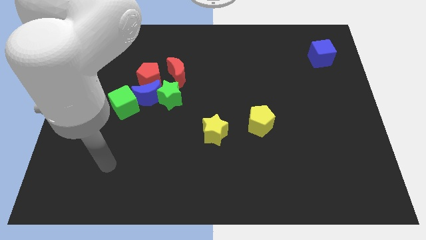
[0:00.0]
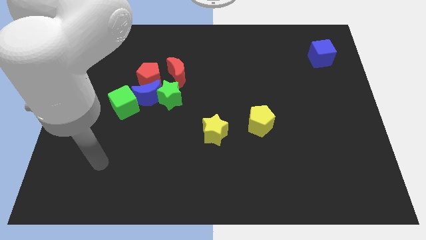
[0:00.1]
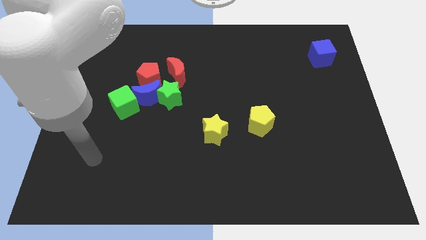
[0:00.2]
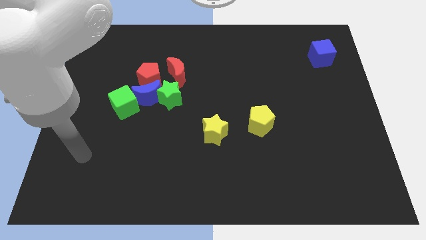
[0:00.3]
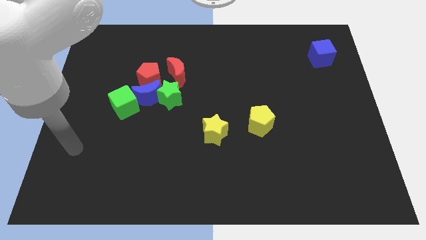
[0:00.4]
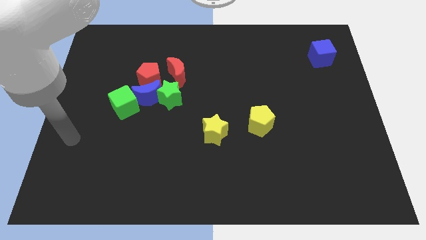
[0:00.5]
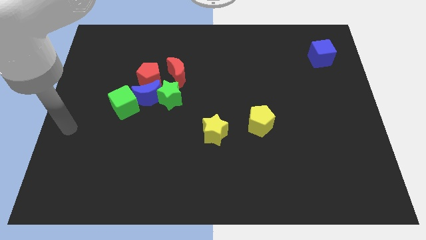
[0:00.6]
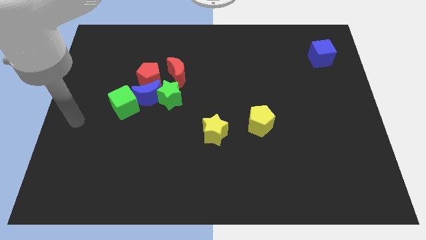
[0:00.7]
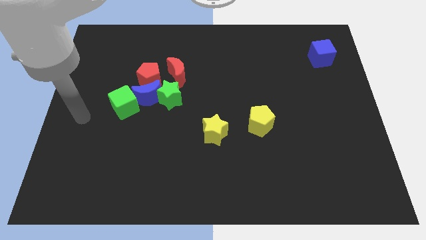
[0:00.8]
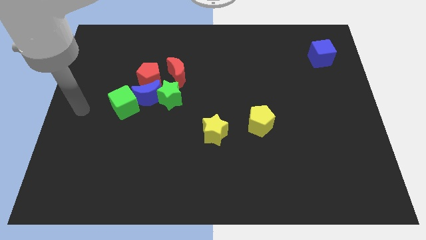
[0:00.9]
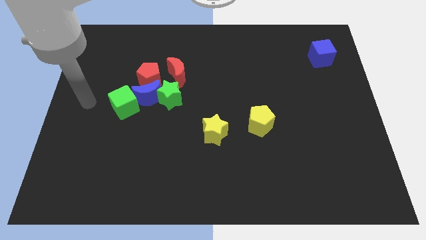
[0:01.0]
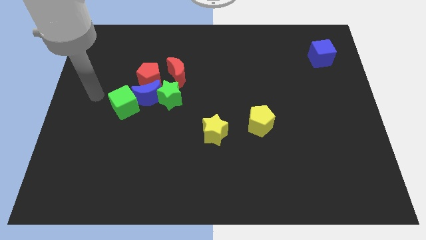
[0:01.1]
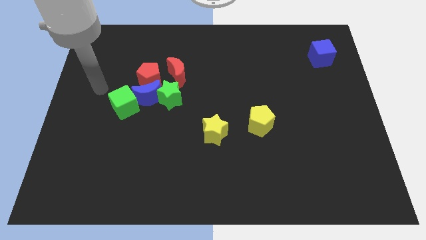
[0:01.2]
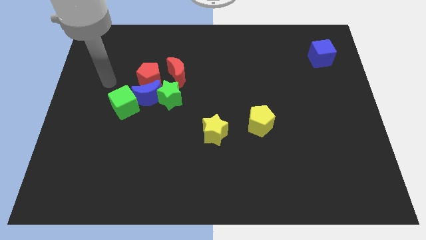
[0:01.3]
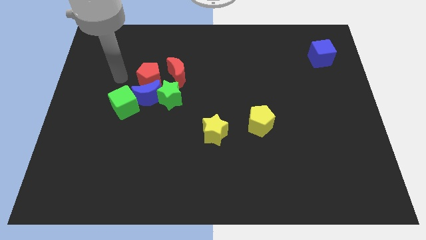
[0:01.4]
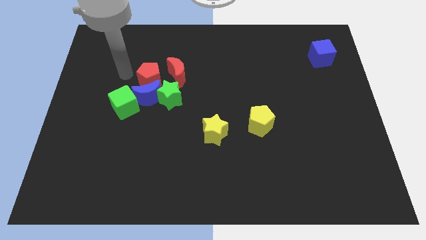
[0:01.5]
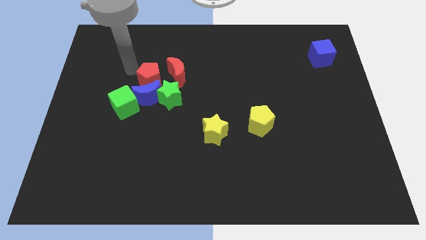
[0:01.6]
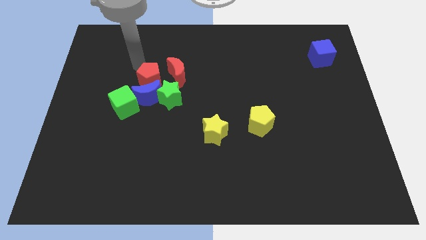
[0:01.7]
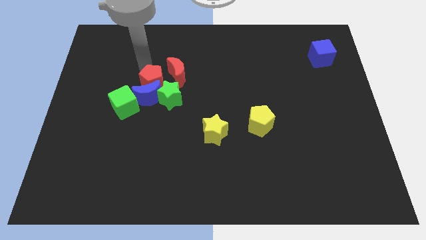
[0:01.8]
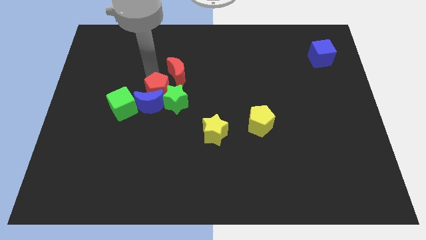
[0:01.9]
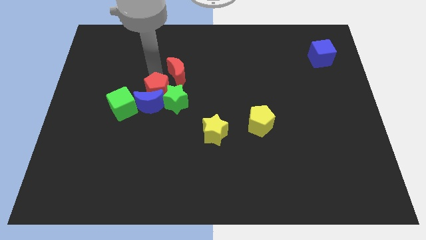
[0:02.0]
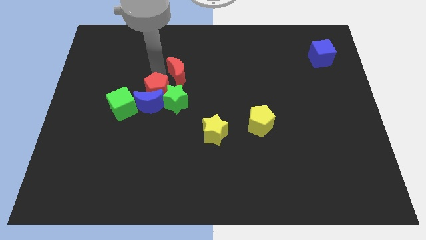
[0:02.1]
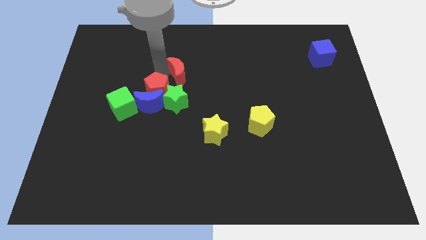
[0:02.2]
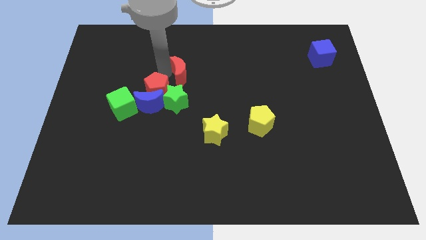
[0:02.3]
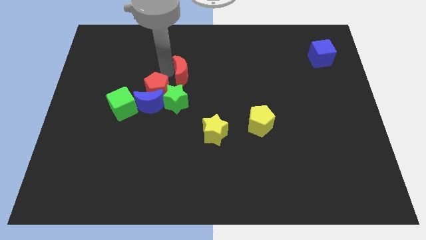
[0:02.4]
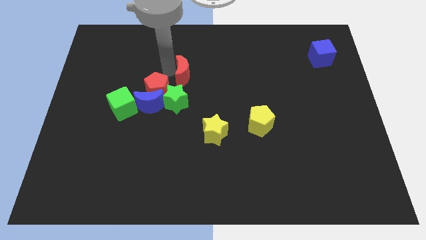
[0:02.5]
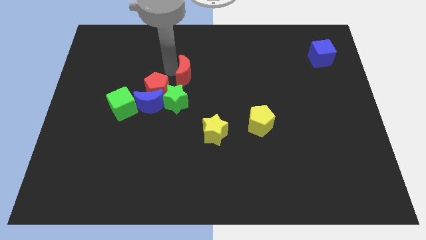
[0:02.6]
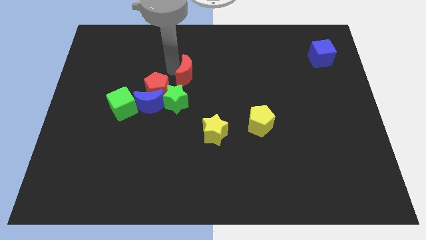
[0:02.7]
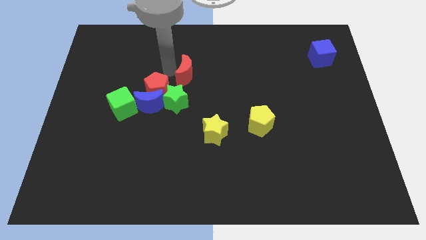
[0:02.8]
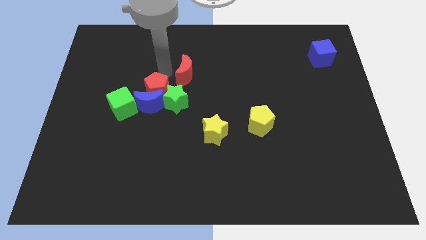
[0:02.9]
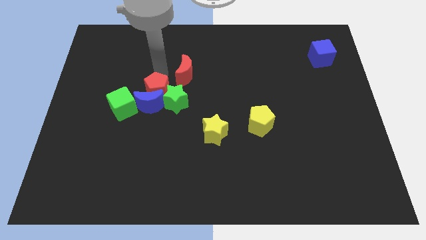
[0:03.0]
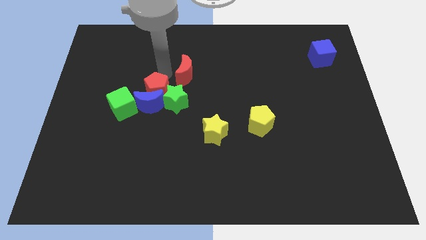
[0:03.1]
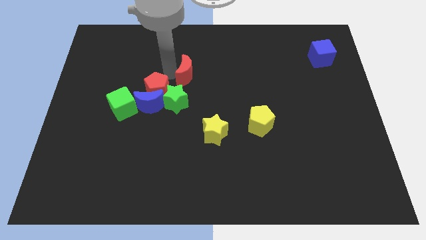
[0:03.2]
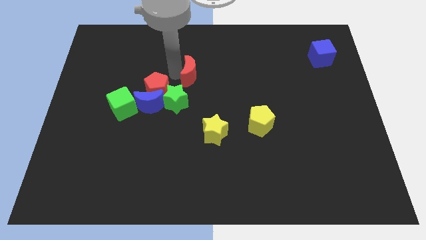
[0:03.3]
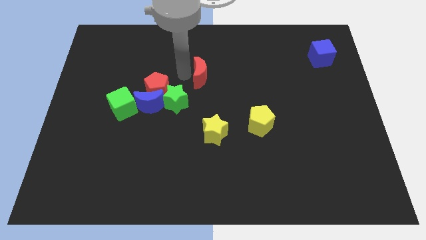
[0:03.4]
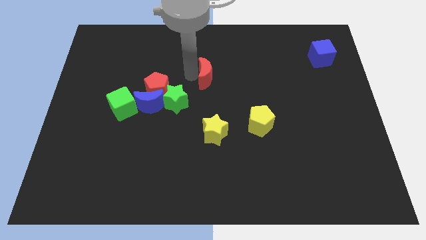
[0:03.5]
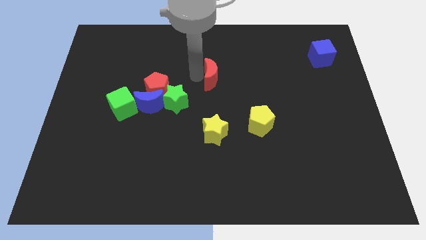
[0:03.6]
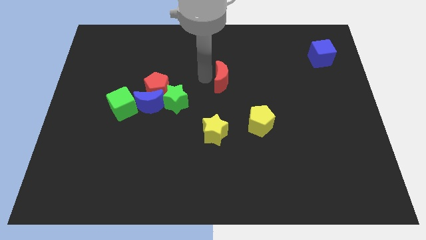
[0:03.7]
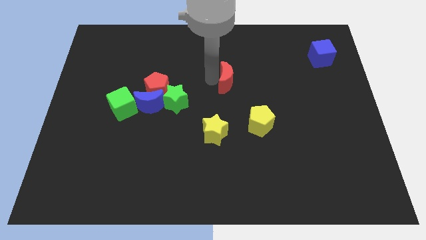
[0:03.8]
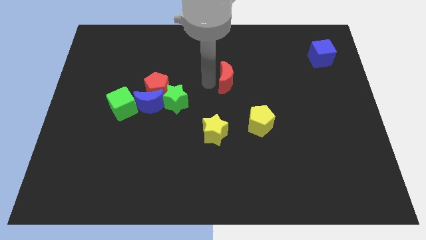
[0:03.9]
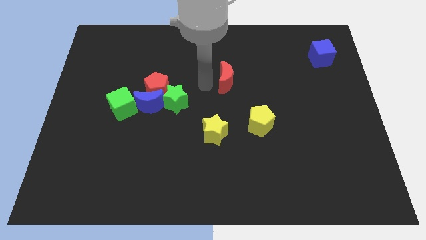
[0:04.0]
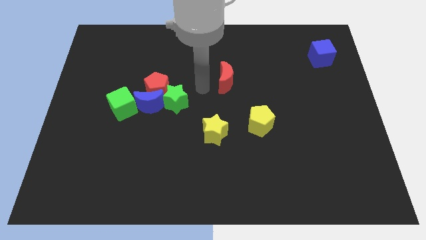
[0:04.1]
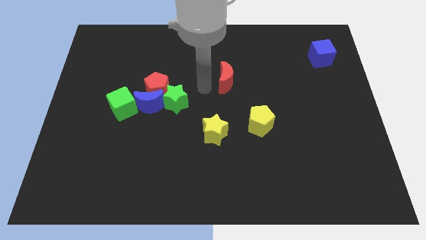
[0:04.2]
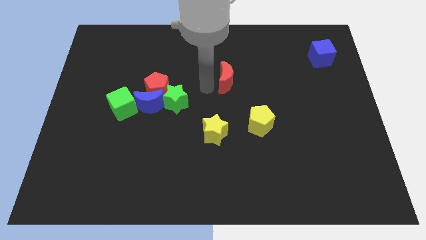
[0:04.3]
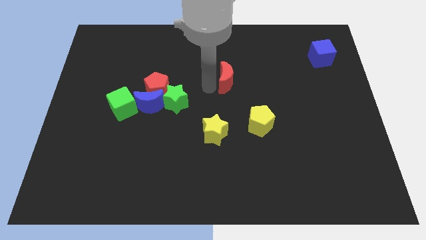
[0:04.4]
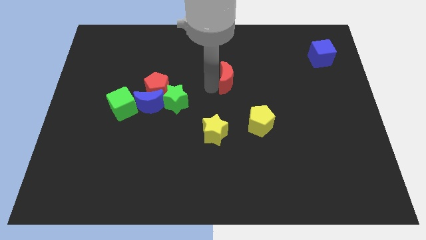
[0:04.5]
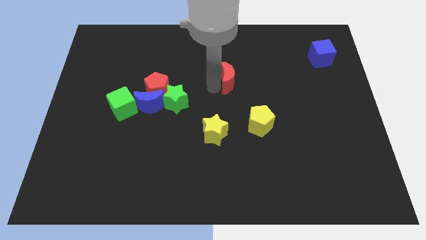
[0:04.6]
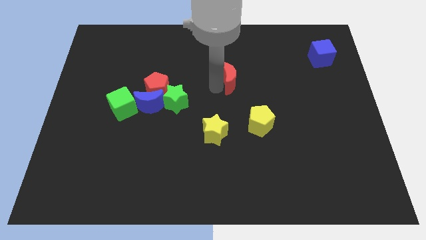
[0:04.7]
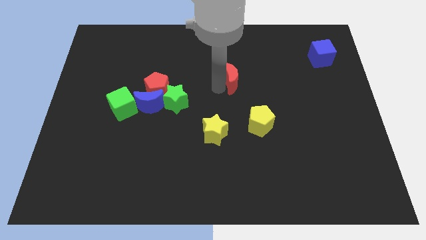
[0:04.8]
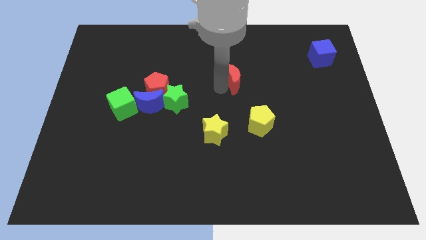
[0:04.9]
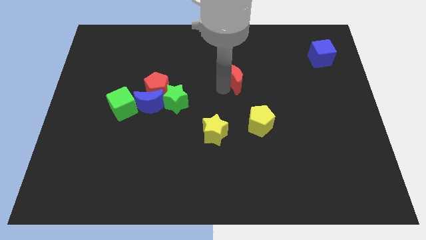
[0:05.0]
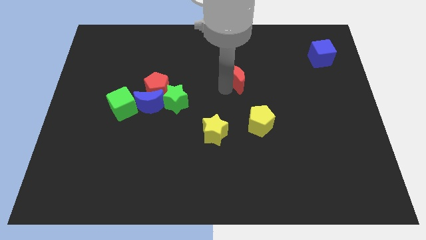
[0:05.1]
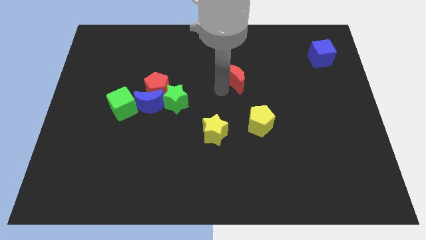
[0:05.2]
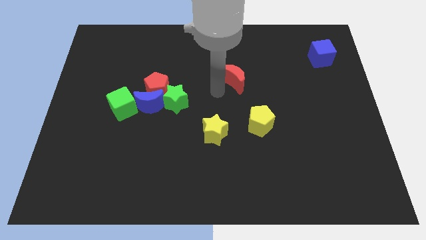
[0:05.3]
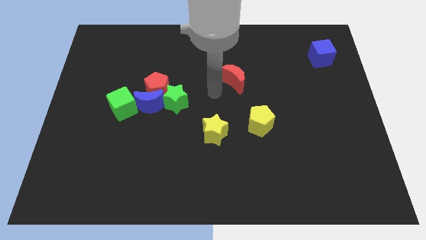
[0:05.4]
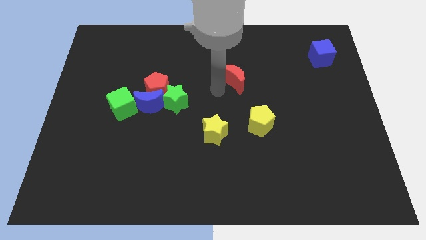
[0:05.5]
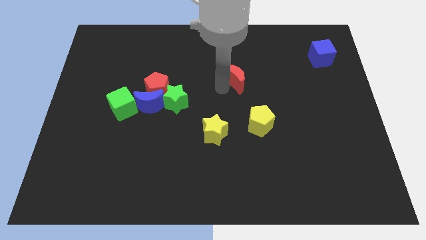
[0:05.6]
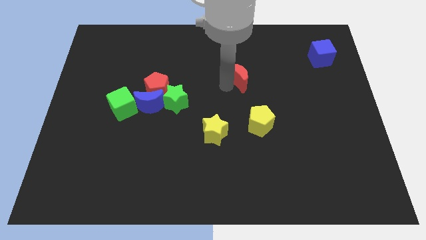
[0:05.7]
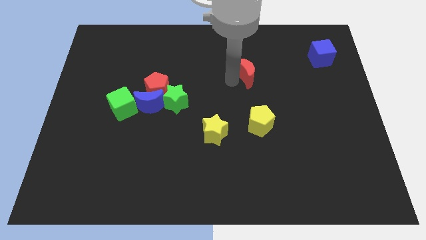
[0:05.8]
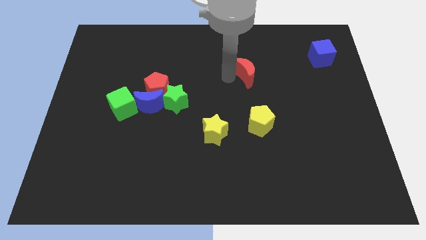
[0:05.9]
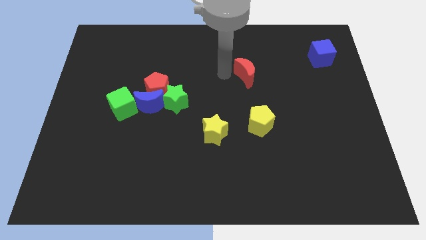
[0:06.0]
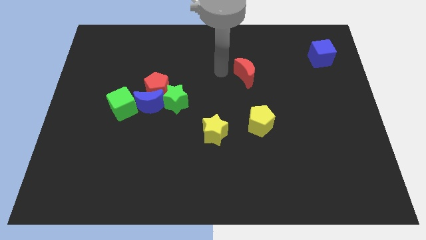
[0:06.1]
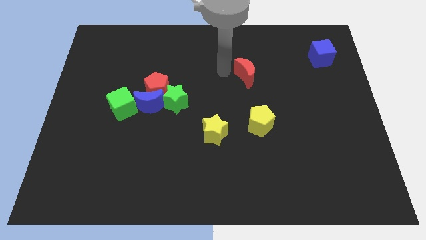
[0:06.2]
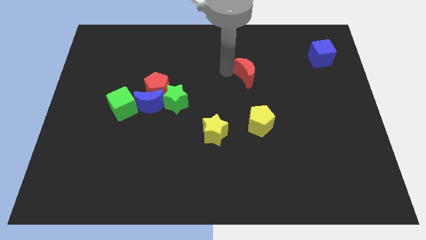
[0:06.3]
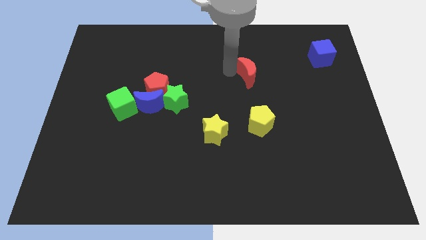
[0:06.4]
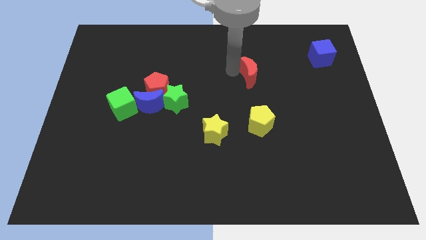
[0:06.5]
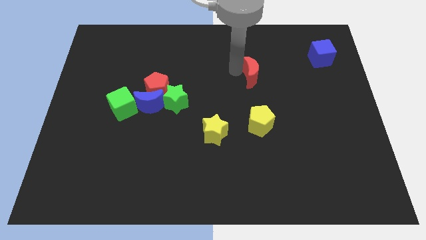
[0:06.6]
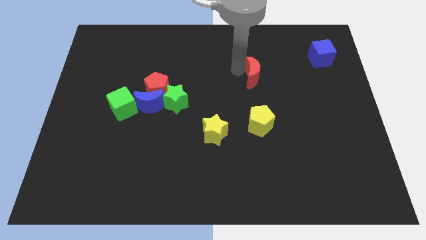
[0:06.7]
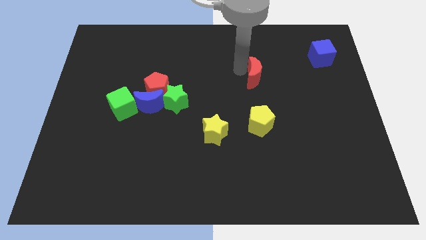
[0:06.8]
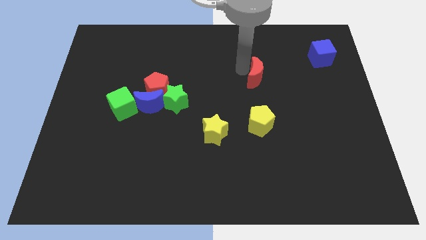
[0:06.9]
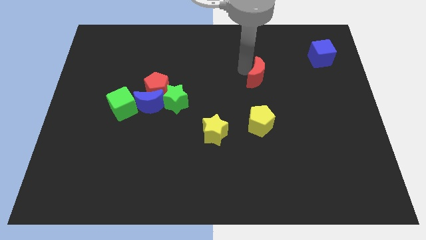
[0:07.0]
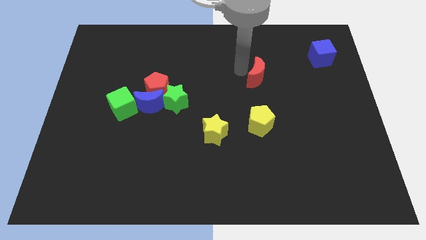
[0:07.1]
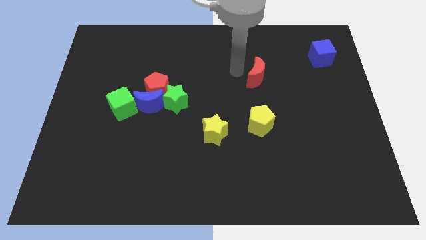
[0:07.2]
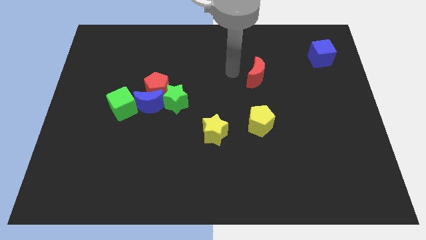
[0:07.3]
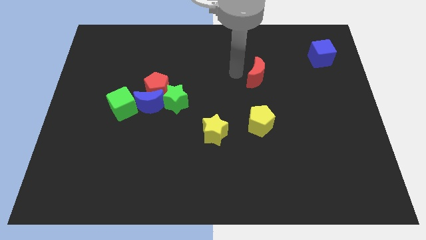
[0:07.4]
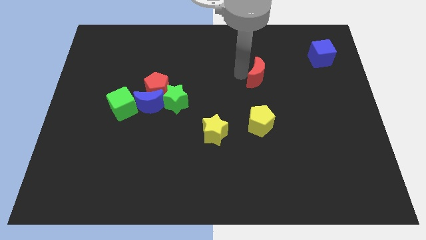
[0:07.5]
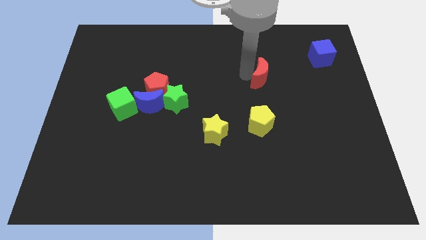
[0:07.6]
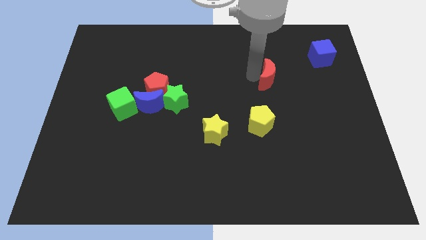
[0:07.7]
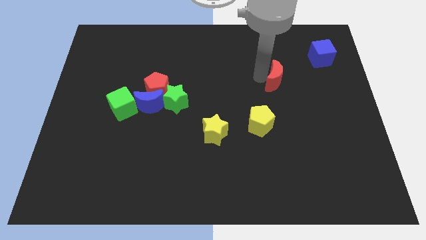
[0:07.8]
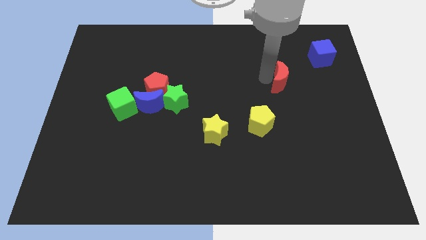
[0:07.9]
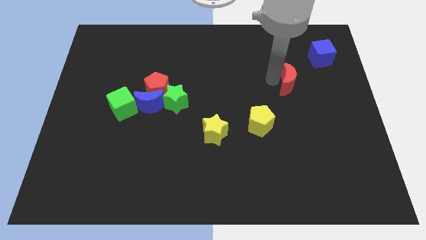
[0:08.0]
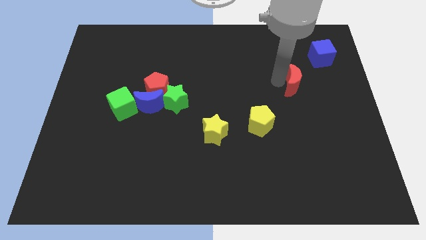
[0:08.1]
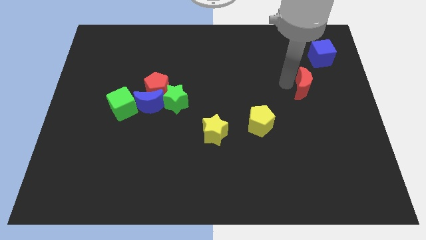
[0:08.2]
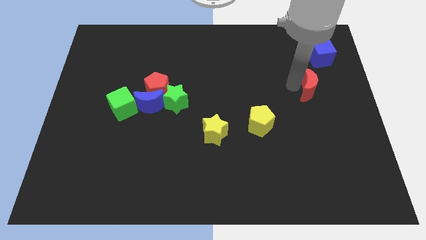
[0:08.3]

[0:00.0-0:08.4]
push the red moon to the bottom side of the blue cube
